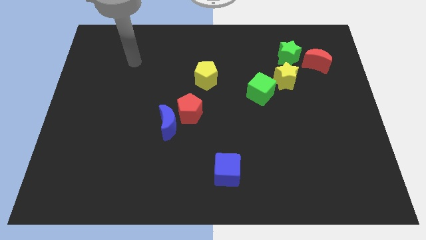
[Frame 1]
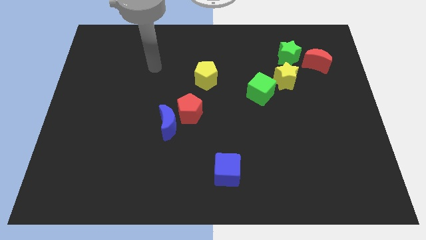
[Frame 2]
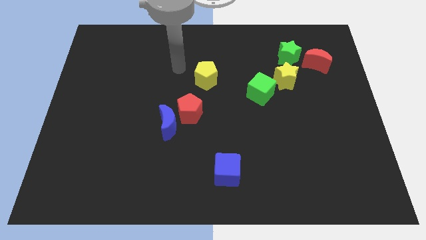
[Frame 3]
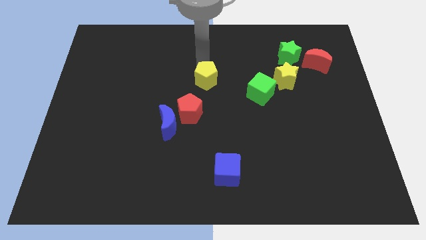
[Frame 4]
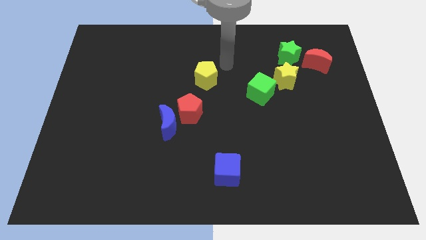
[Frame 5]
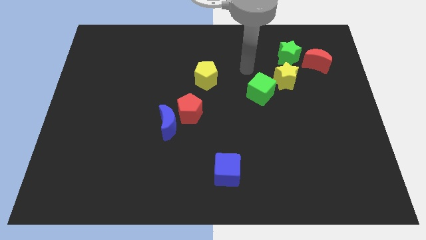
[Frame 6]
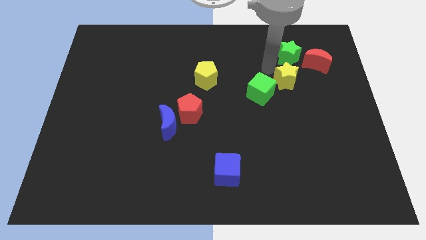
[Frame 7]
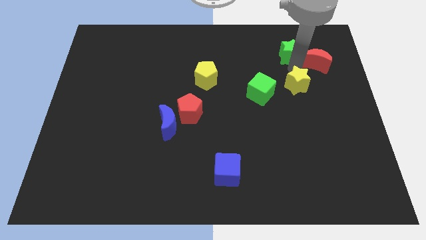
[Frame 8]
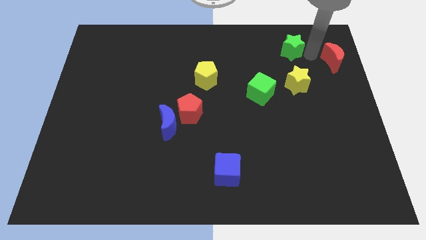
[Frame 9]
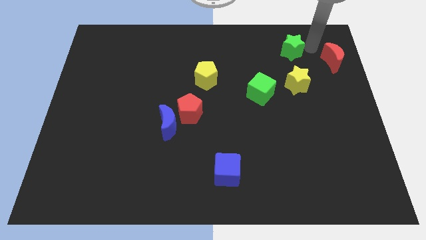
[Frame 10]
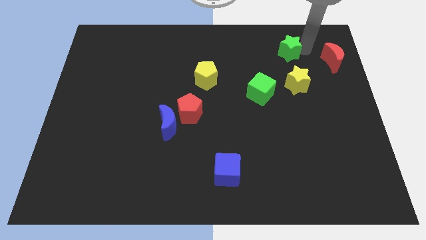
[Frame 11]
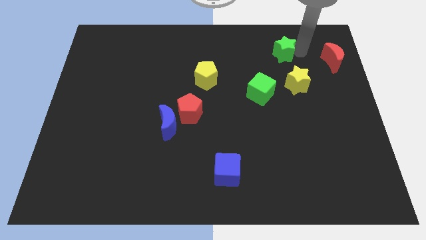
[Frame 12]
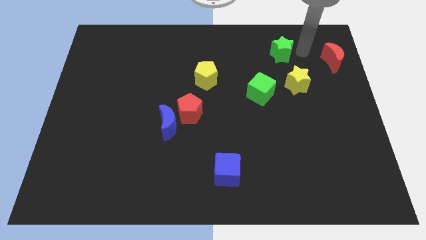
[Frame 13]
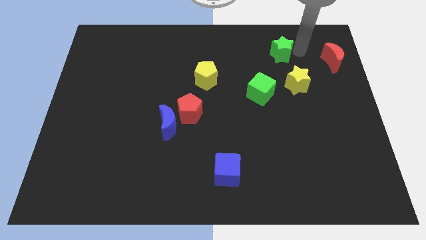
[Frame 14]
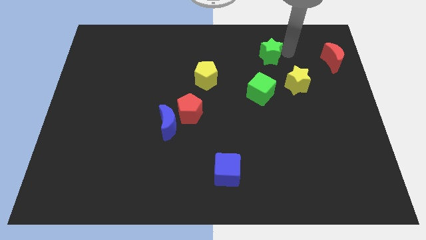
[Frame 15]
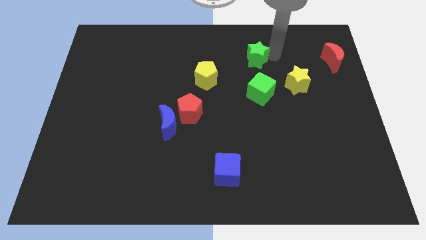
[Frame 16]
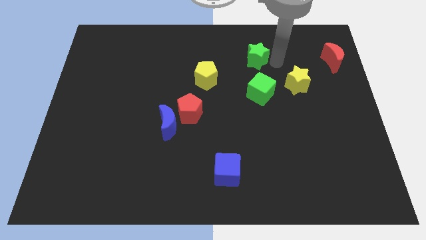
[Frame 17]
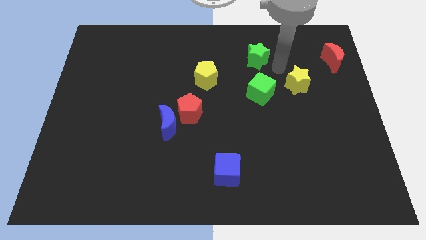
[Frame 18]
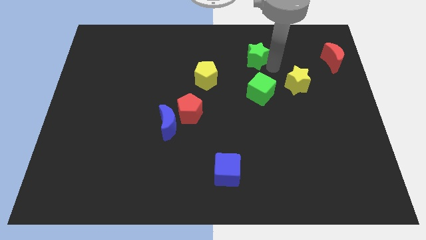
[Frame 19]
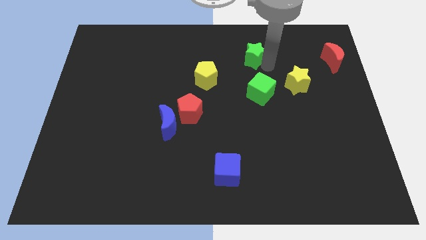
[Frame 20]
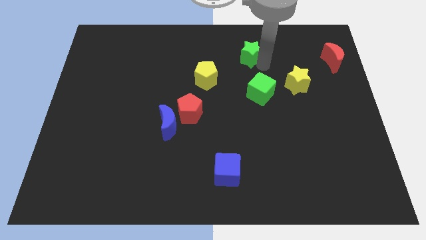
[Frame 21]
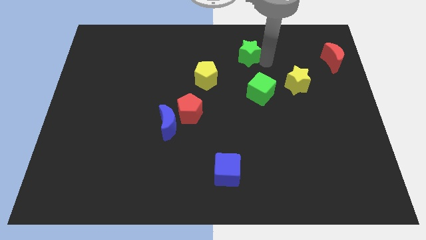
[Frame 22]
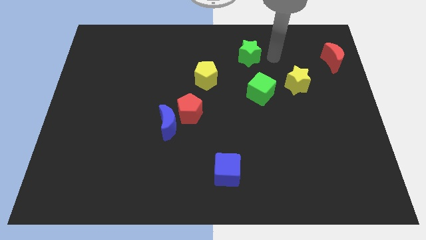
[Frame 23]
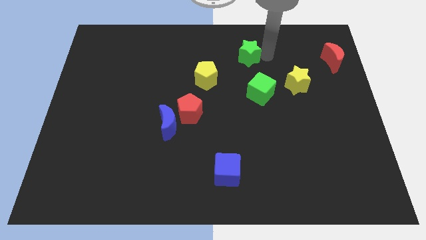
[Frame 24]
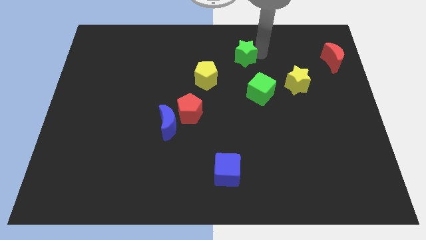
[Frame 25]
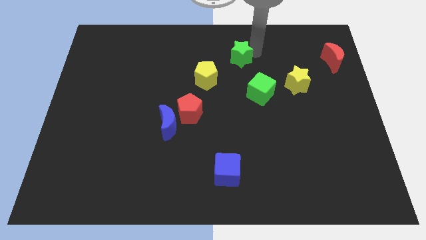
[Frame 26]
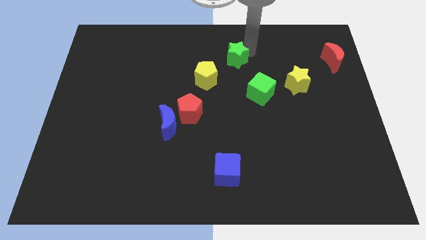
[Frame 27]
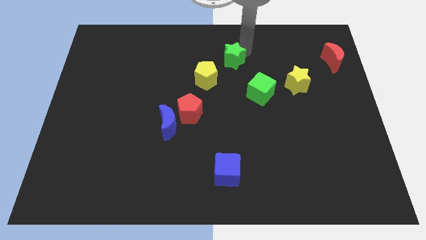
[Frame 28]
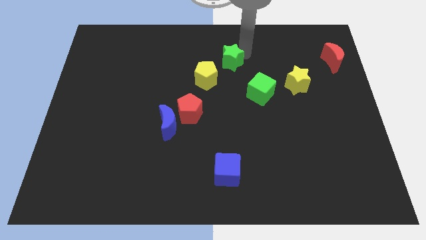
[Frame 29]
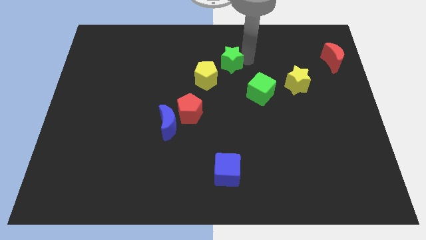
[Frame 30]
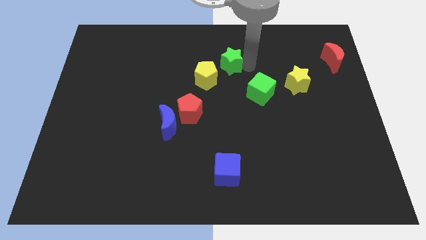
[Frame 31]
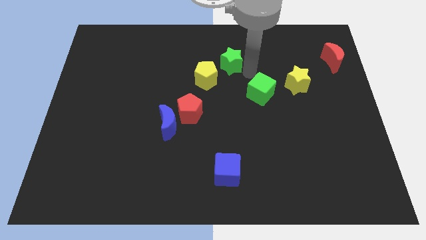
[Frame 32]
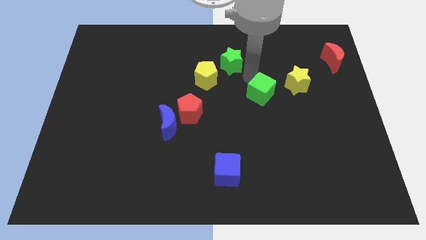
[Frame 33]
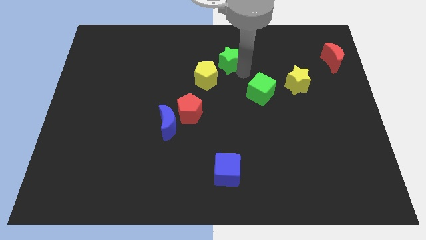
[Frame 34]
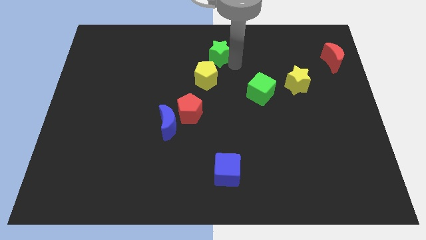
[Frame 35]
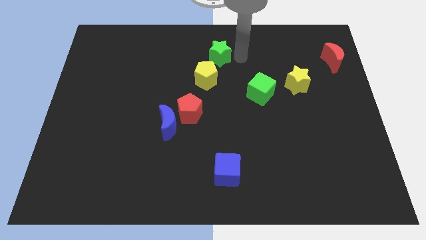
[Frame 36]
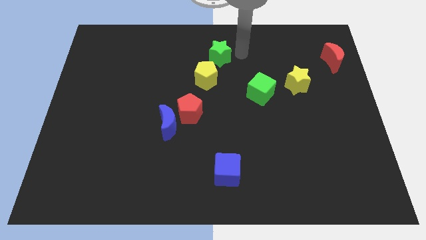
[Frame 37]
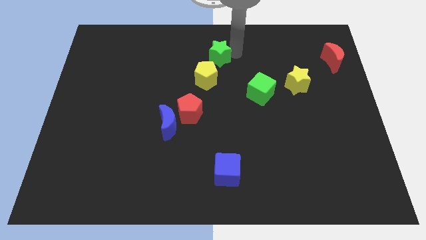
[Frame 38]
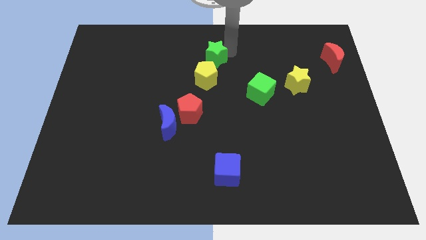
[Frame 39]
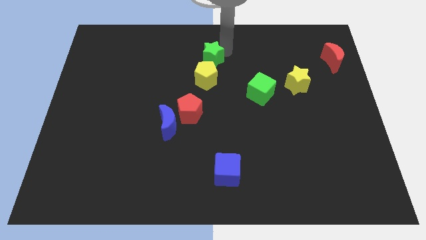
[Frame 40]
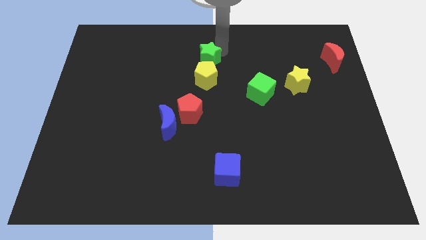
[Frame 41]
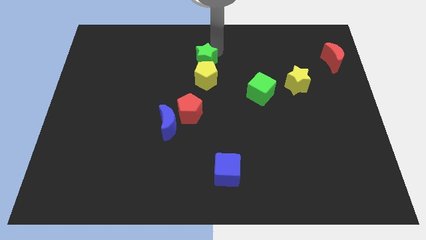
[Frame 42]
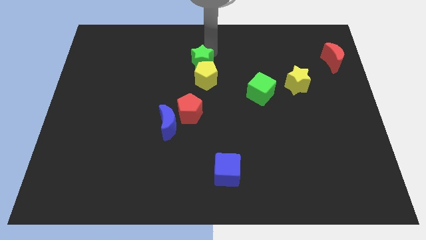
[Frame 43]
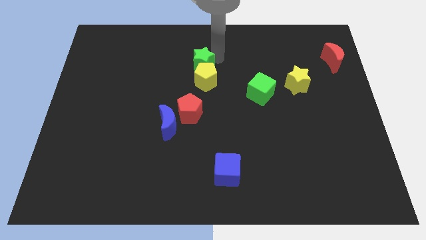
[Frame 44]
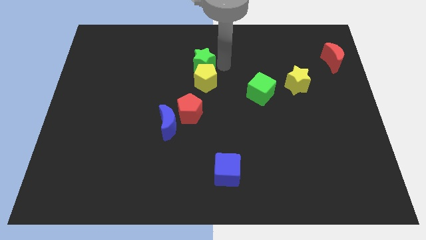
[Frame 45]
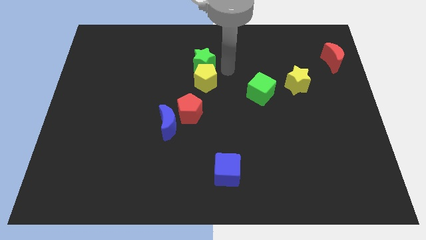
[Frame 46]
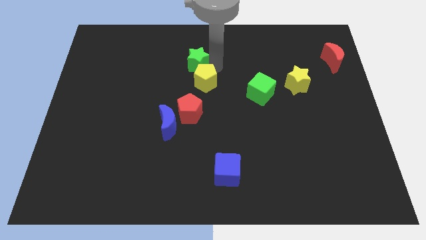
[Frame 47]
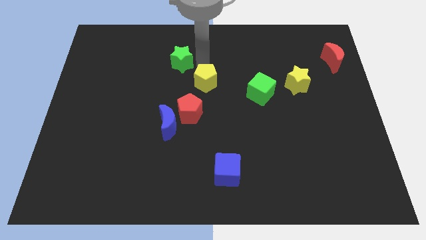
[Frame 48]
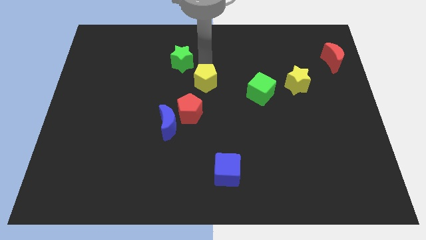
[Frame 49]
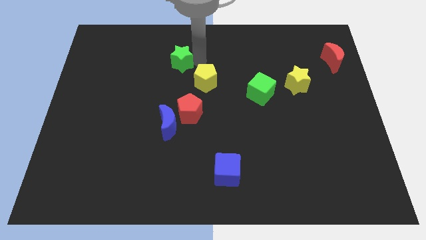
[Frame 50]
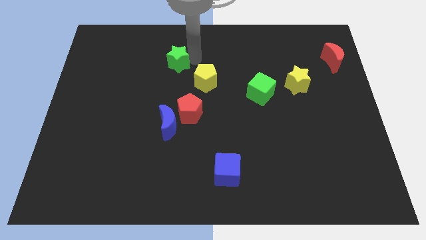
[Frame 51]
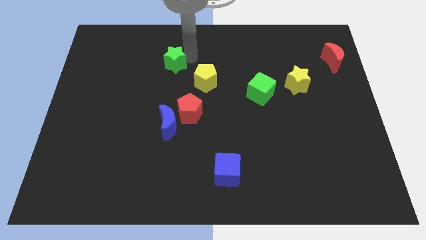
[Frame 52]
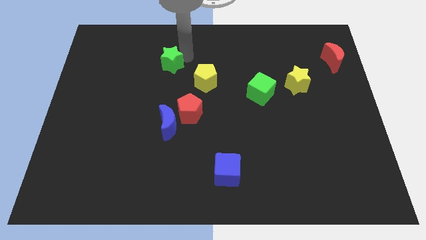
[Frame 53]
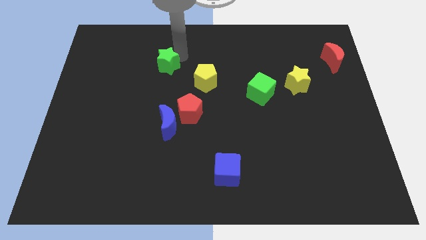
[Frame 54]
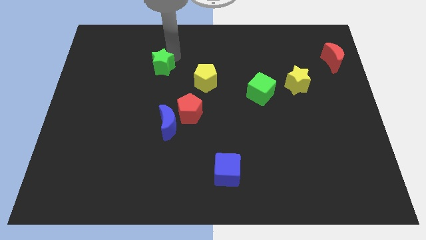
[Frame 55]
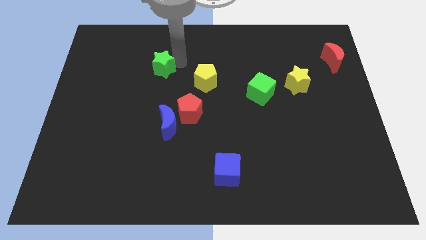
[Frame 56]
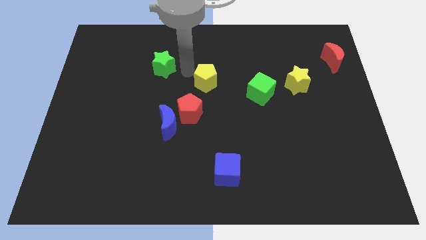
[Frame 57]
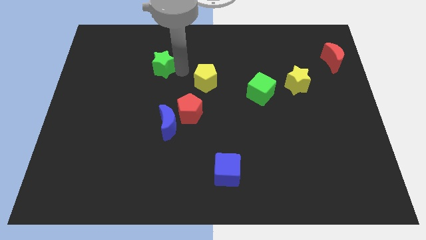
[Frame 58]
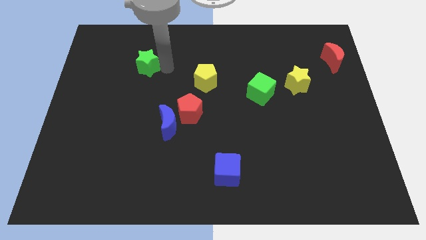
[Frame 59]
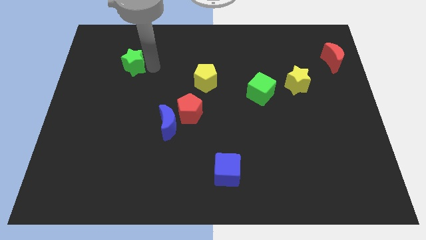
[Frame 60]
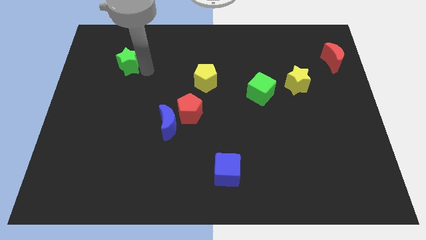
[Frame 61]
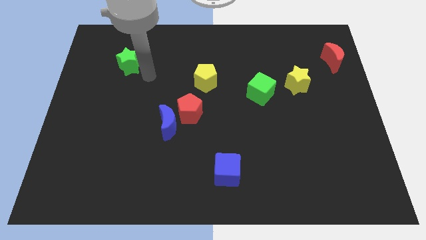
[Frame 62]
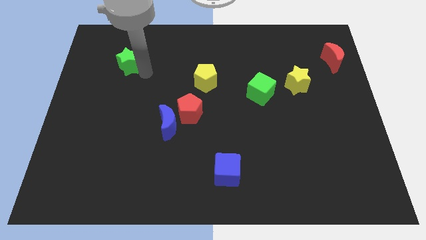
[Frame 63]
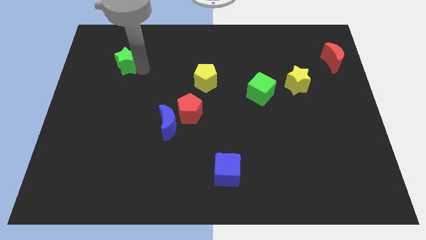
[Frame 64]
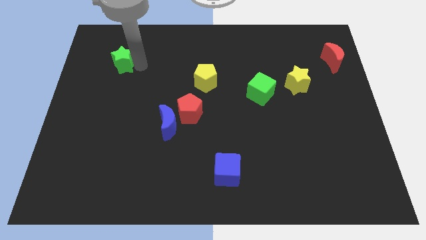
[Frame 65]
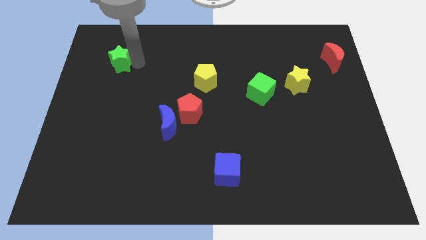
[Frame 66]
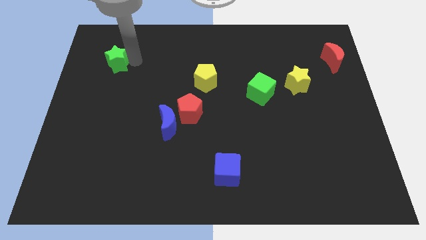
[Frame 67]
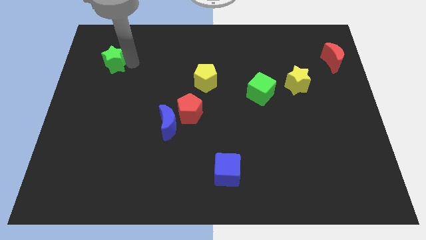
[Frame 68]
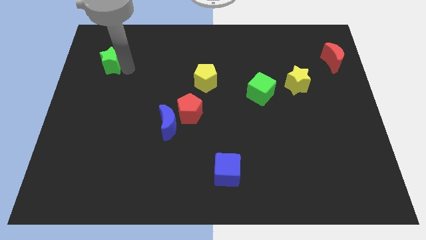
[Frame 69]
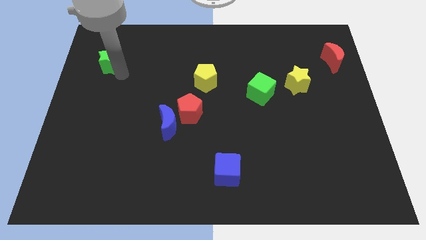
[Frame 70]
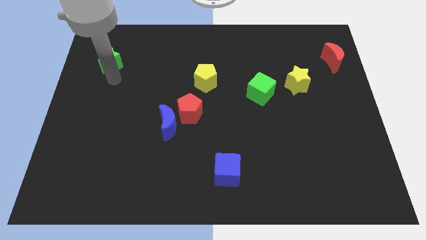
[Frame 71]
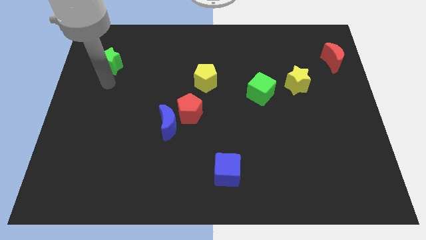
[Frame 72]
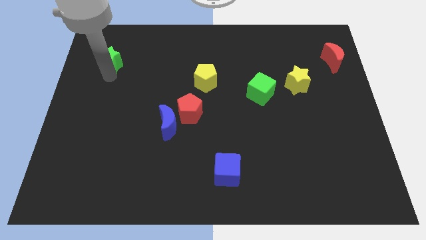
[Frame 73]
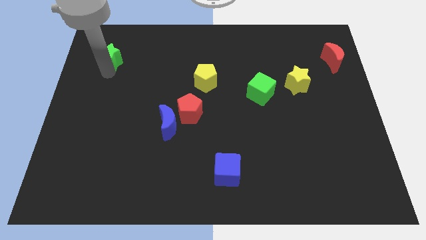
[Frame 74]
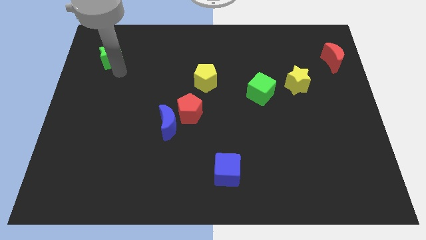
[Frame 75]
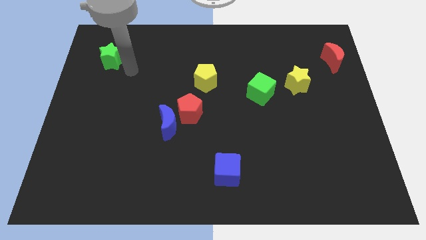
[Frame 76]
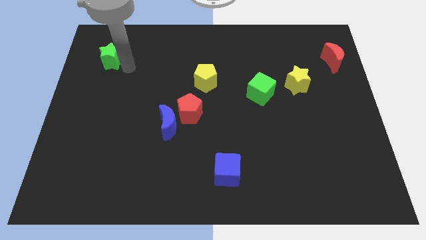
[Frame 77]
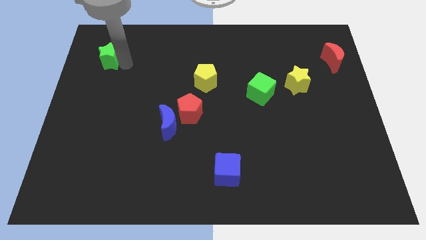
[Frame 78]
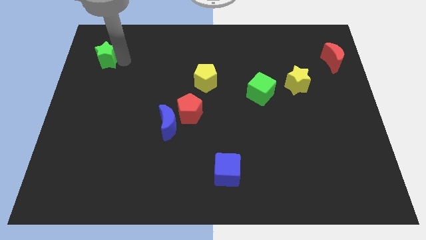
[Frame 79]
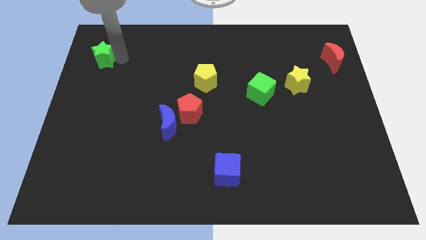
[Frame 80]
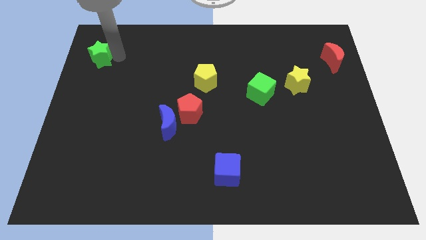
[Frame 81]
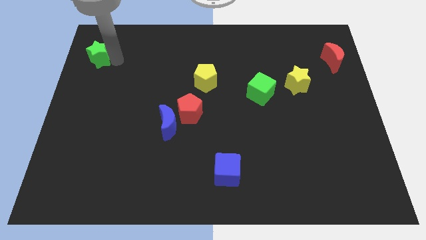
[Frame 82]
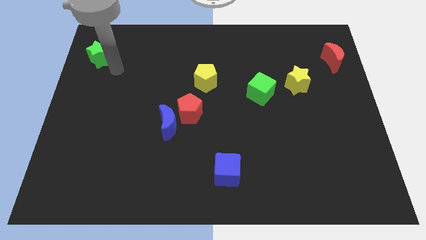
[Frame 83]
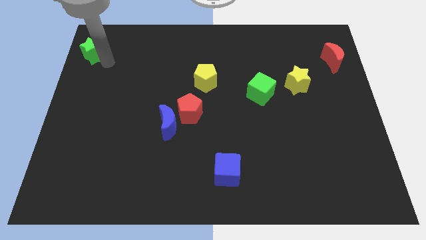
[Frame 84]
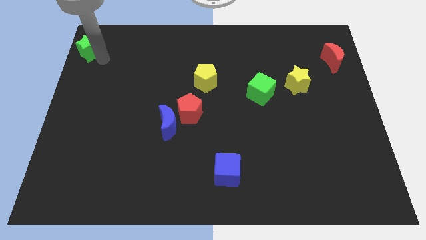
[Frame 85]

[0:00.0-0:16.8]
push the green star to the upper left corner
